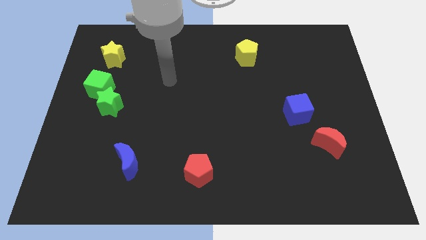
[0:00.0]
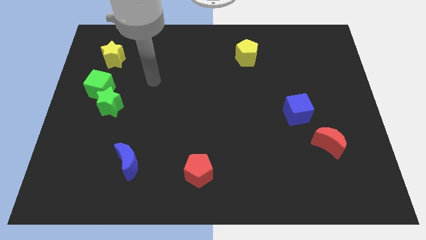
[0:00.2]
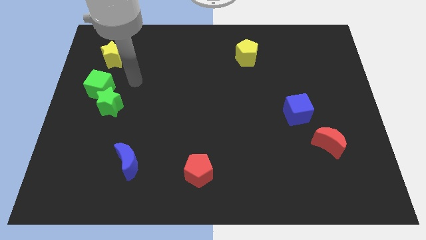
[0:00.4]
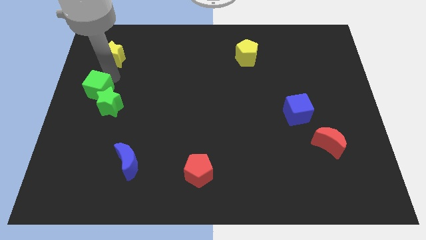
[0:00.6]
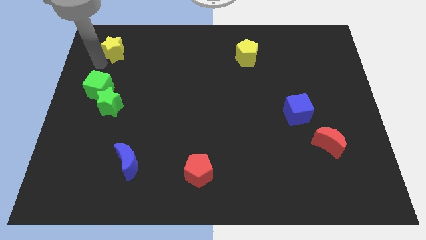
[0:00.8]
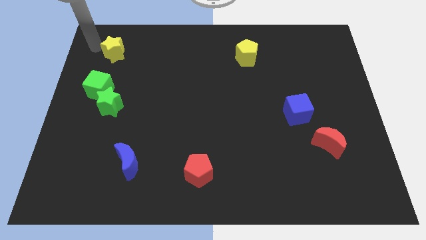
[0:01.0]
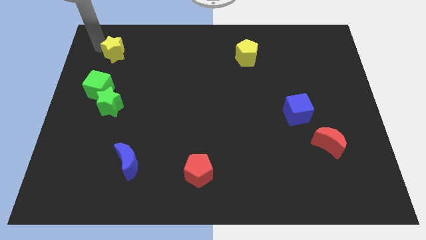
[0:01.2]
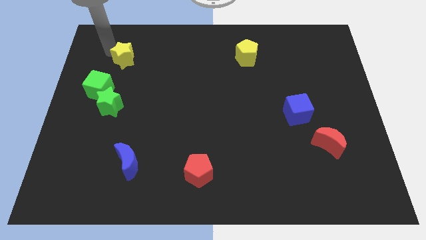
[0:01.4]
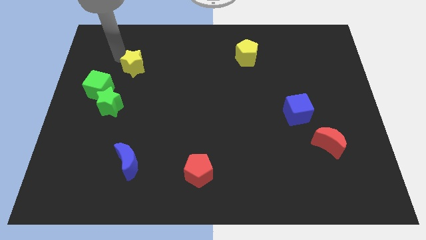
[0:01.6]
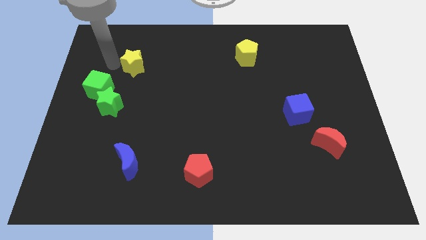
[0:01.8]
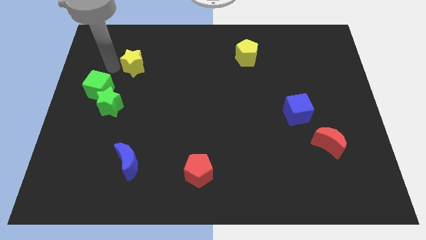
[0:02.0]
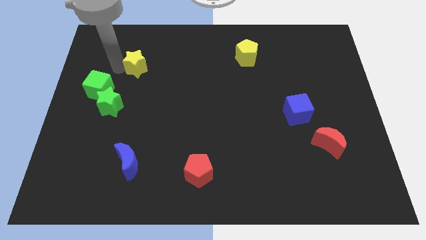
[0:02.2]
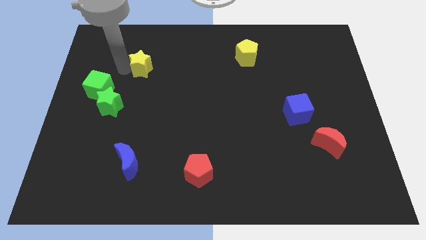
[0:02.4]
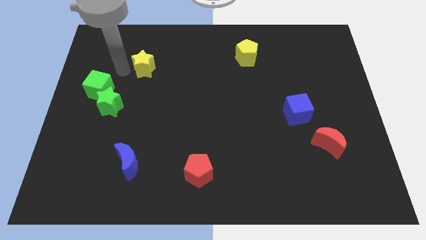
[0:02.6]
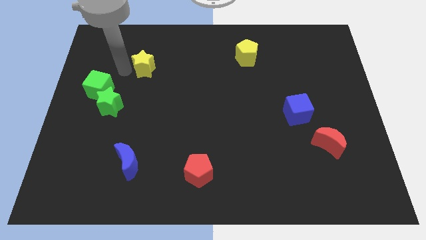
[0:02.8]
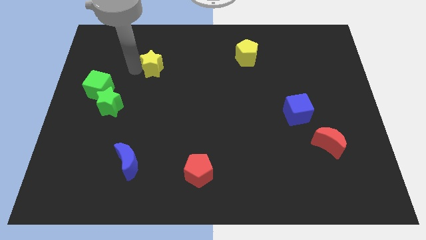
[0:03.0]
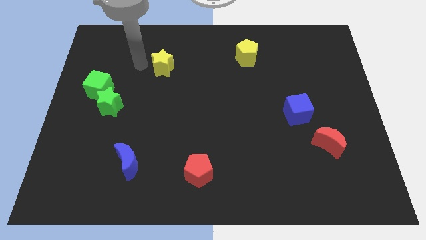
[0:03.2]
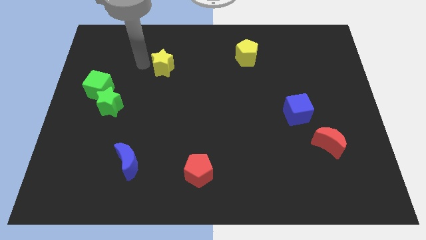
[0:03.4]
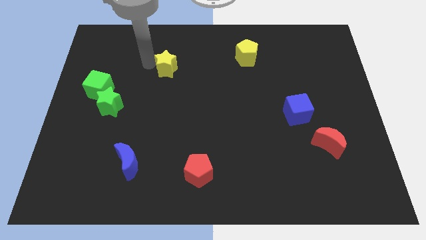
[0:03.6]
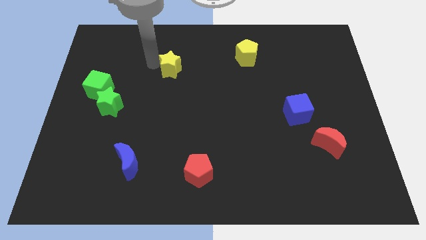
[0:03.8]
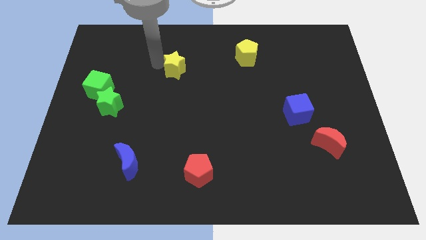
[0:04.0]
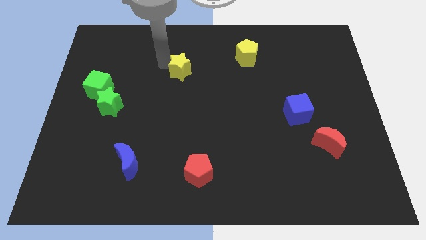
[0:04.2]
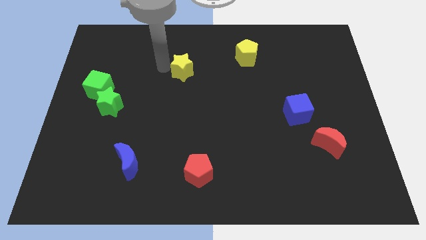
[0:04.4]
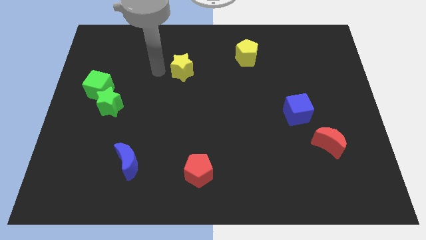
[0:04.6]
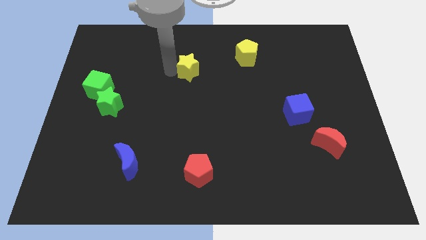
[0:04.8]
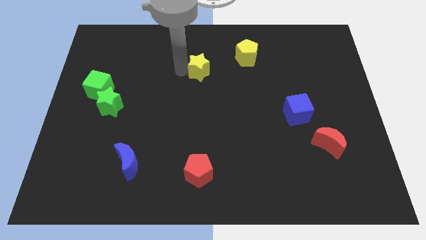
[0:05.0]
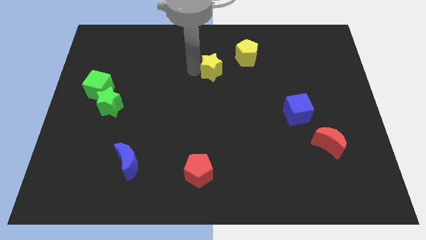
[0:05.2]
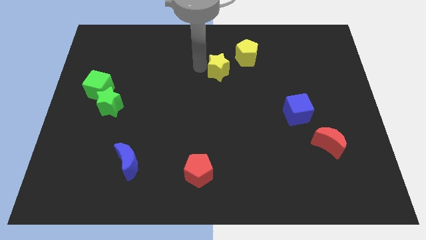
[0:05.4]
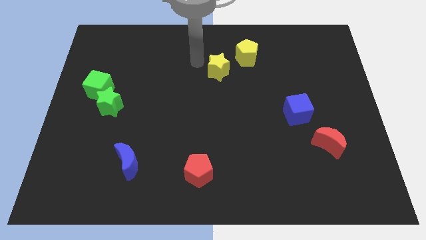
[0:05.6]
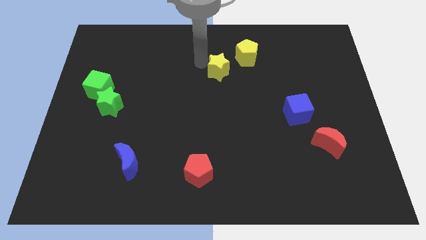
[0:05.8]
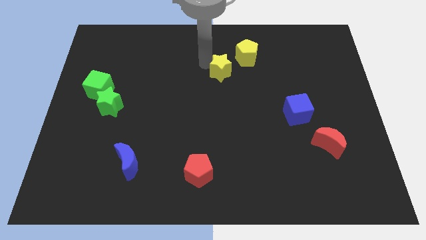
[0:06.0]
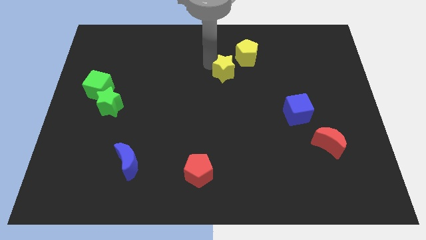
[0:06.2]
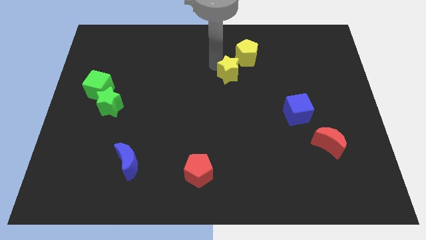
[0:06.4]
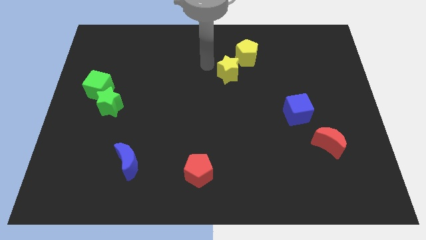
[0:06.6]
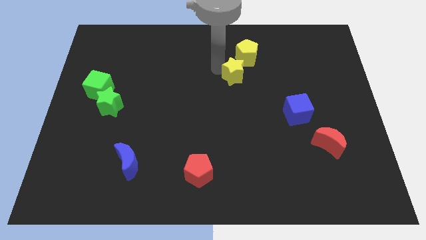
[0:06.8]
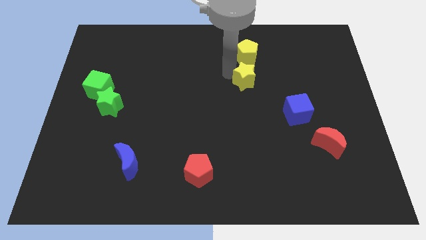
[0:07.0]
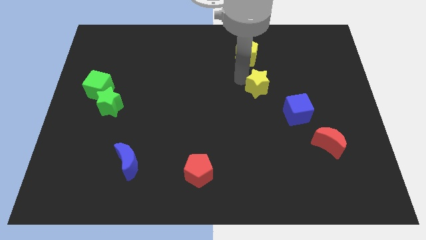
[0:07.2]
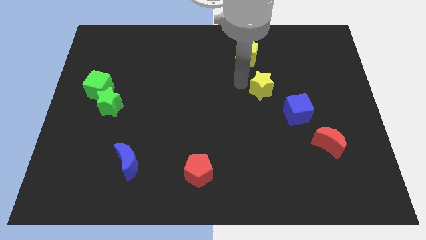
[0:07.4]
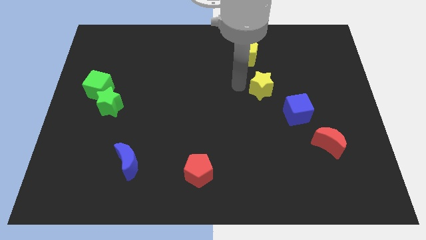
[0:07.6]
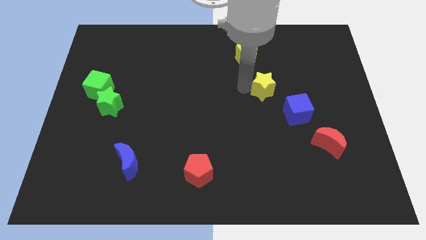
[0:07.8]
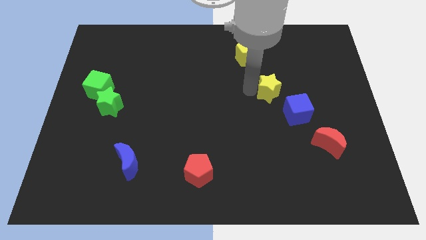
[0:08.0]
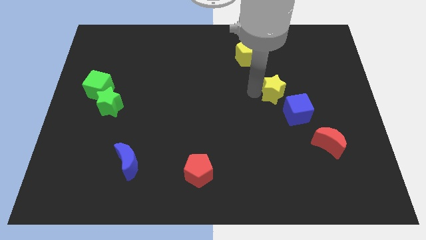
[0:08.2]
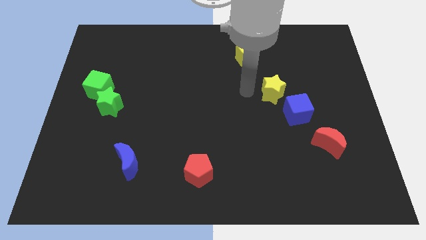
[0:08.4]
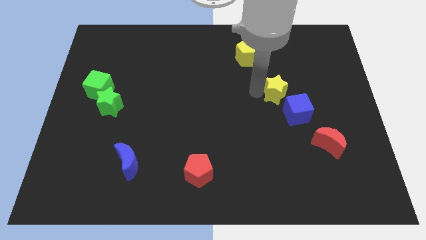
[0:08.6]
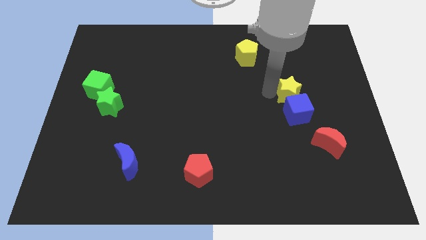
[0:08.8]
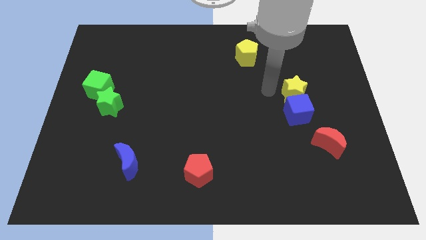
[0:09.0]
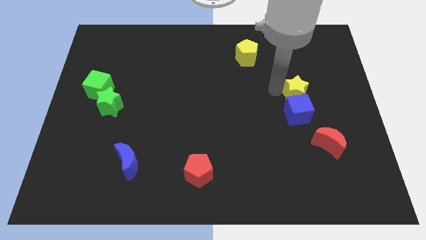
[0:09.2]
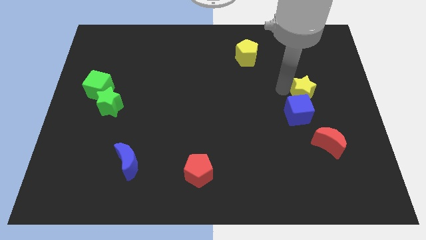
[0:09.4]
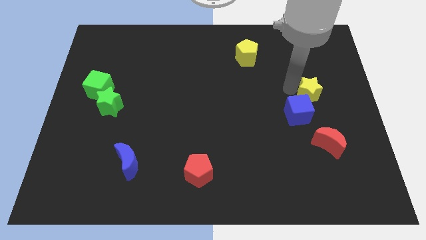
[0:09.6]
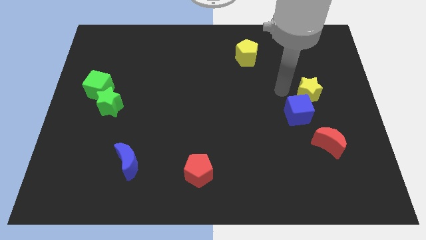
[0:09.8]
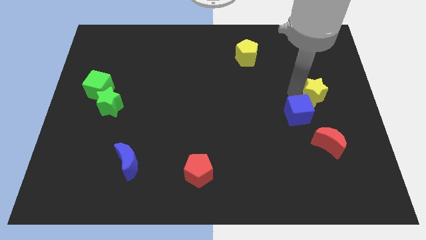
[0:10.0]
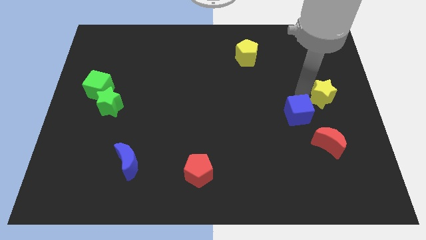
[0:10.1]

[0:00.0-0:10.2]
put the yellow star to the center right

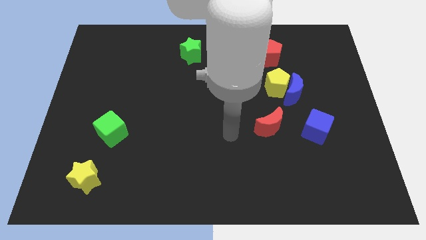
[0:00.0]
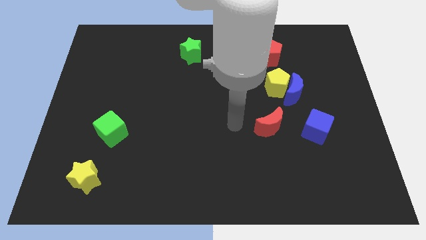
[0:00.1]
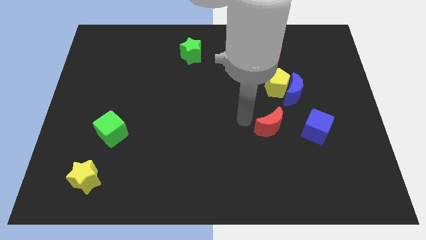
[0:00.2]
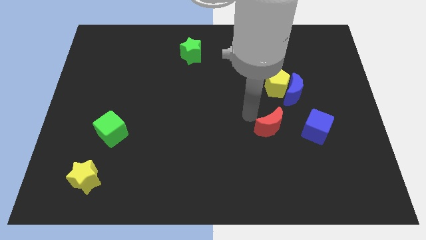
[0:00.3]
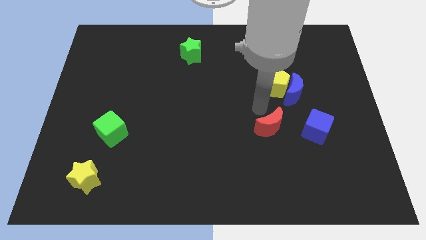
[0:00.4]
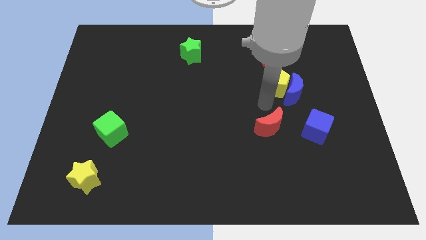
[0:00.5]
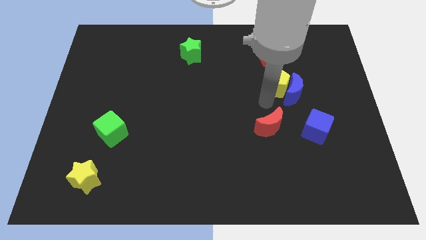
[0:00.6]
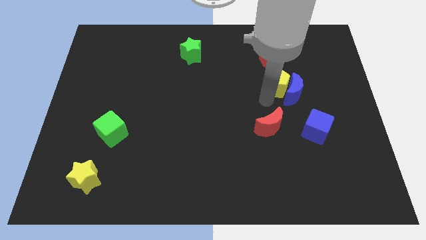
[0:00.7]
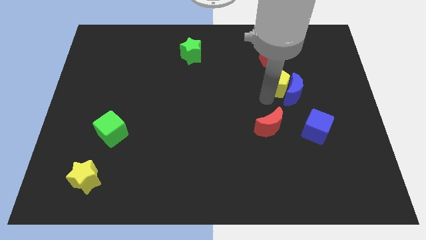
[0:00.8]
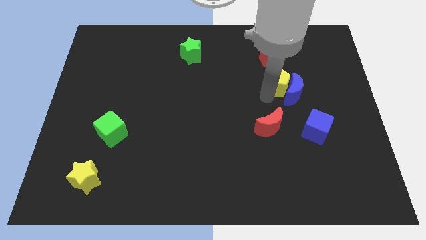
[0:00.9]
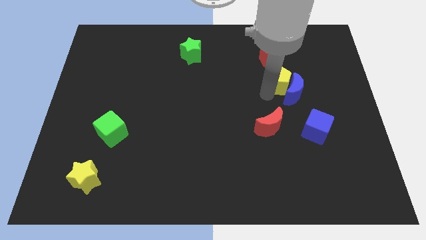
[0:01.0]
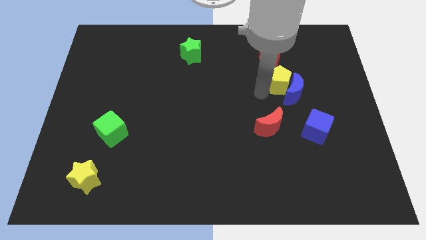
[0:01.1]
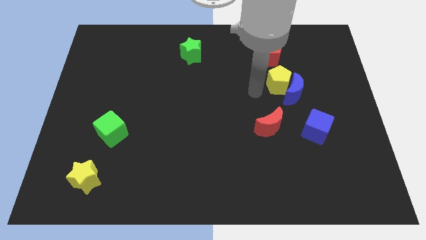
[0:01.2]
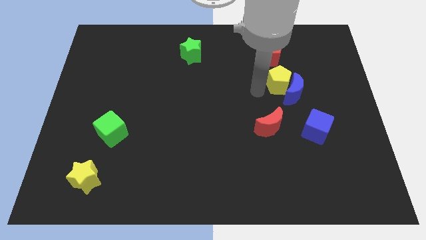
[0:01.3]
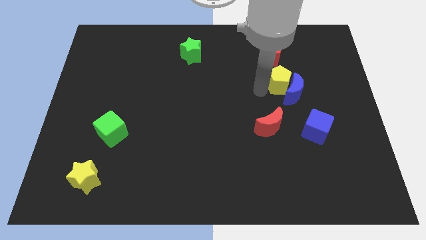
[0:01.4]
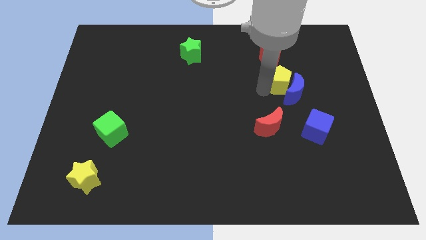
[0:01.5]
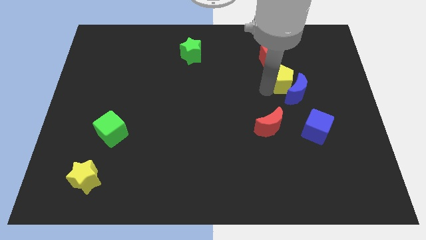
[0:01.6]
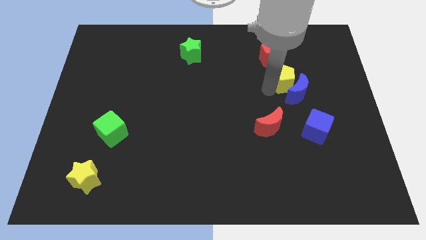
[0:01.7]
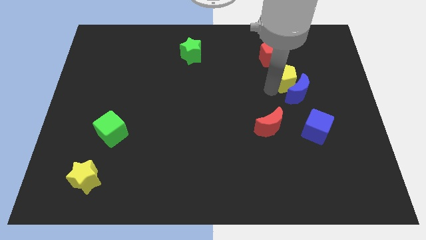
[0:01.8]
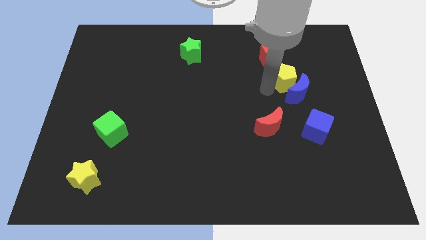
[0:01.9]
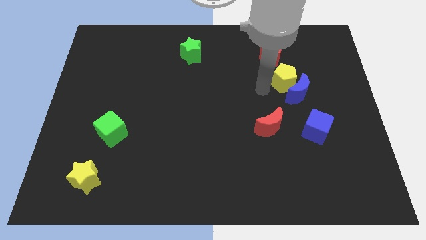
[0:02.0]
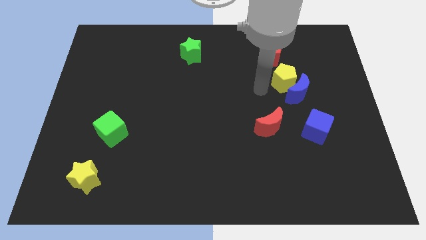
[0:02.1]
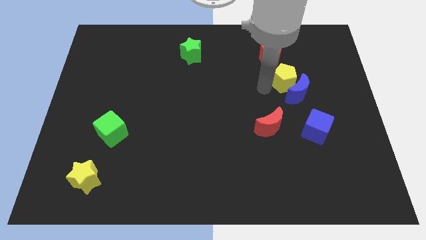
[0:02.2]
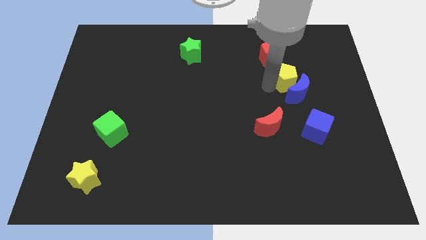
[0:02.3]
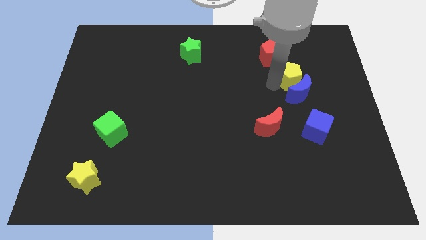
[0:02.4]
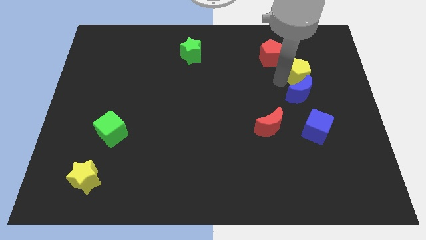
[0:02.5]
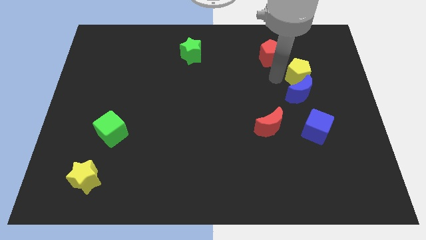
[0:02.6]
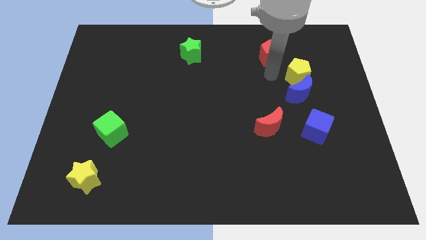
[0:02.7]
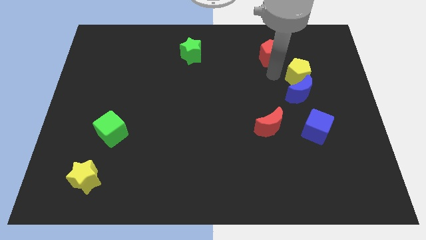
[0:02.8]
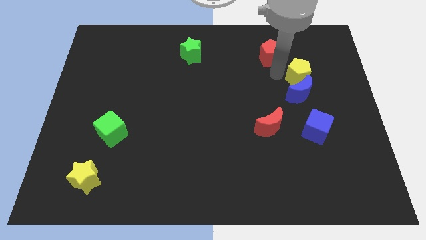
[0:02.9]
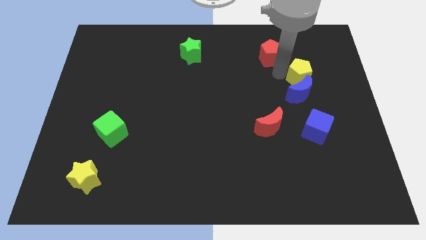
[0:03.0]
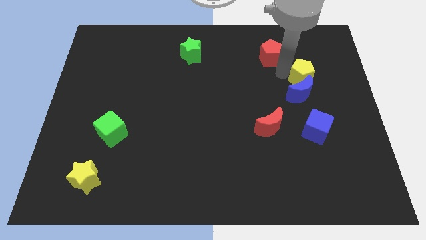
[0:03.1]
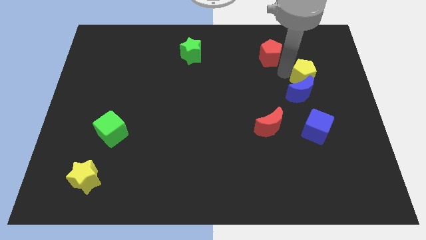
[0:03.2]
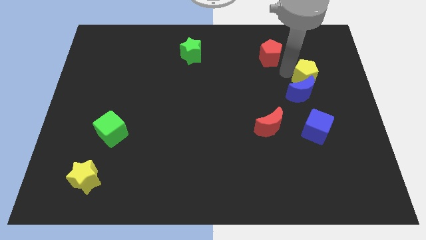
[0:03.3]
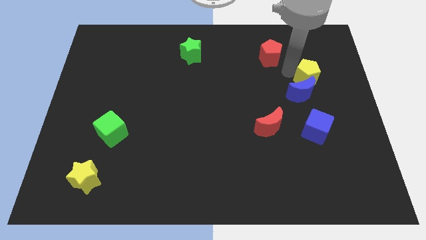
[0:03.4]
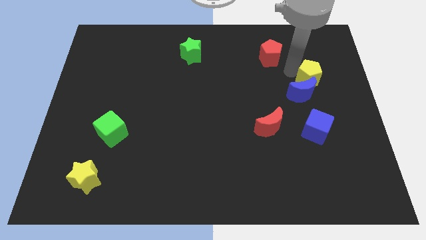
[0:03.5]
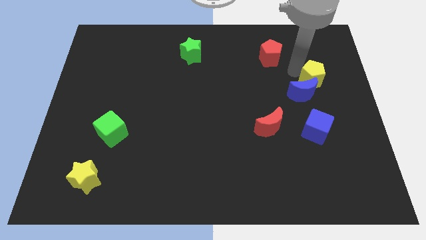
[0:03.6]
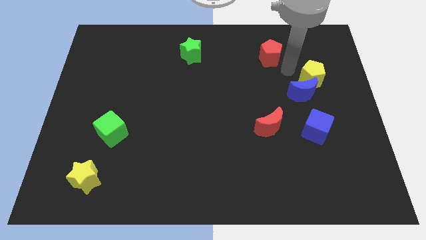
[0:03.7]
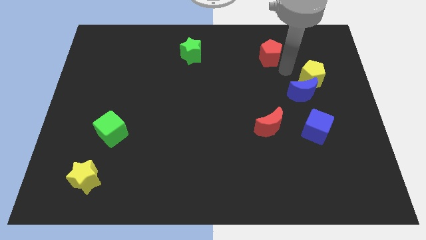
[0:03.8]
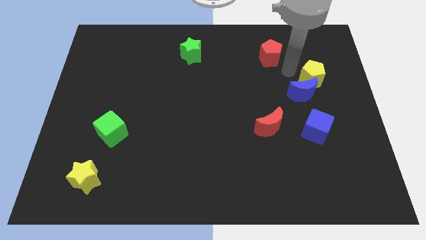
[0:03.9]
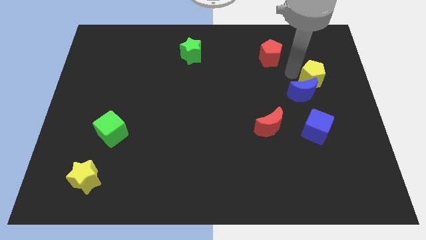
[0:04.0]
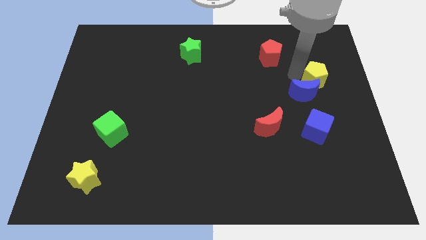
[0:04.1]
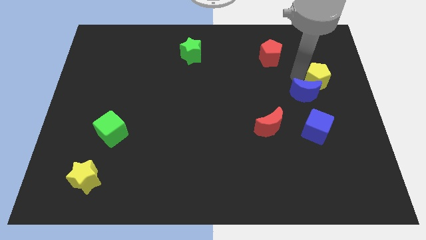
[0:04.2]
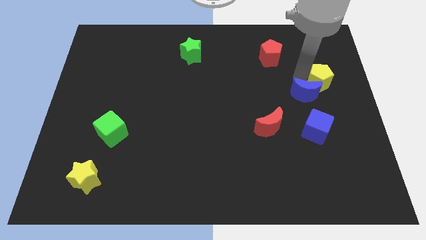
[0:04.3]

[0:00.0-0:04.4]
put the yellow pentagon to the right side
